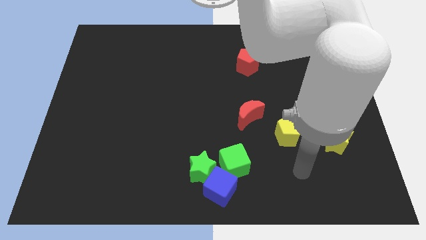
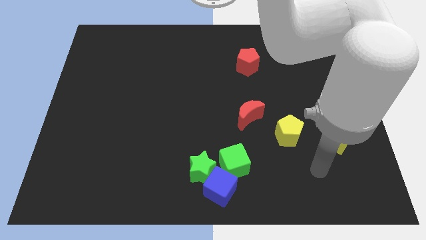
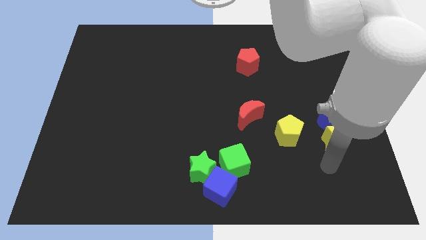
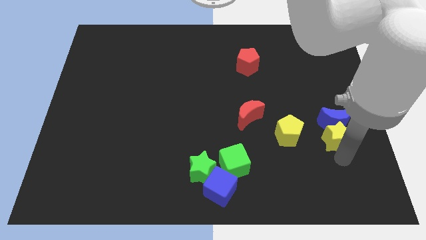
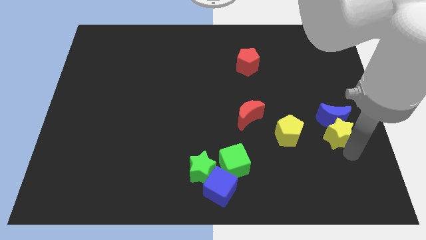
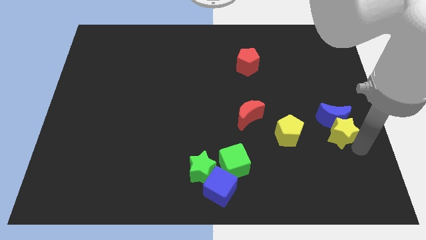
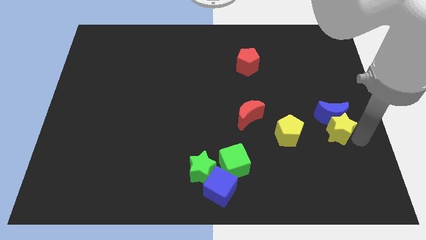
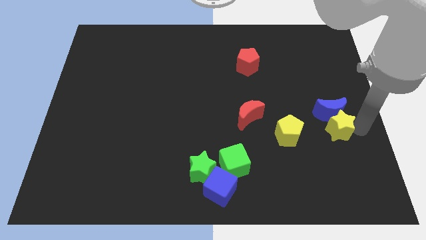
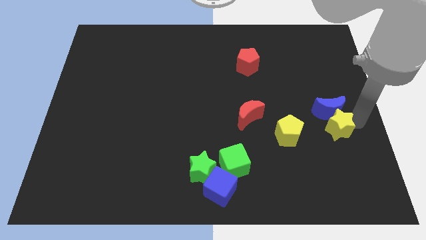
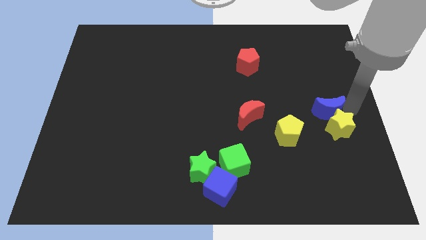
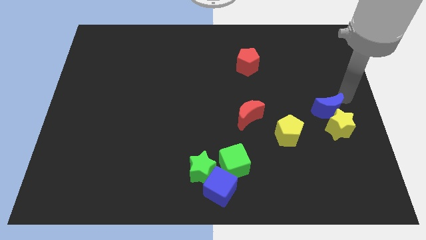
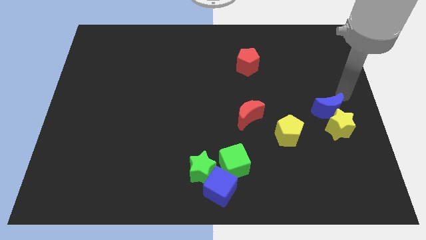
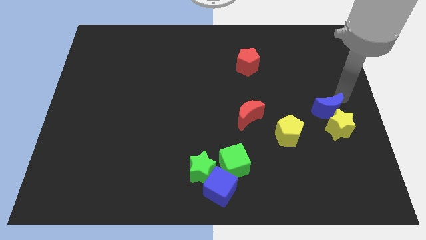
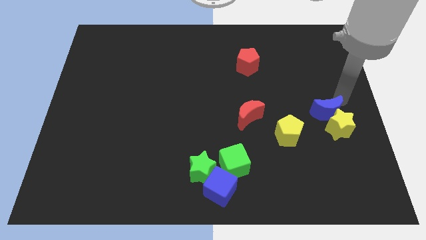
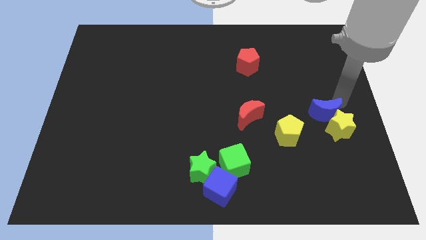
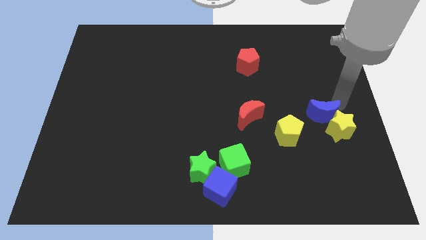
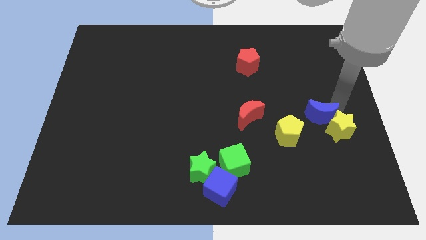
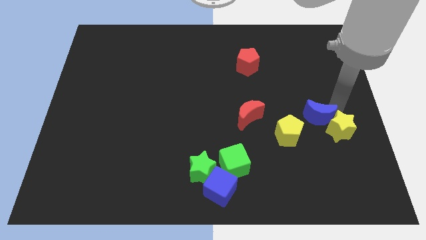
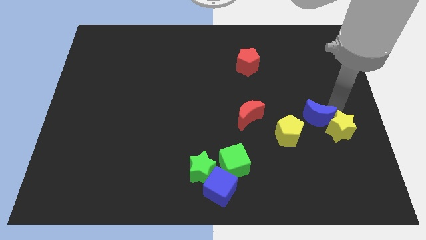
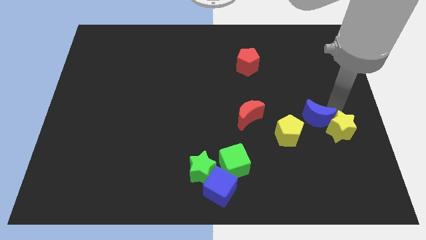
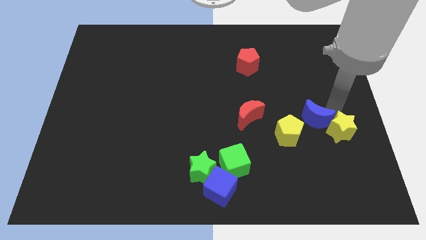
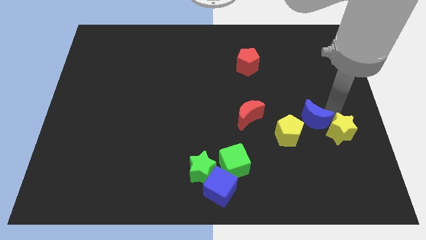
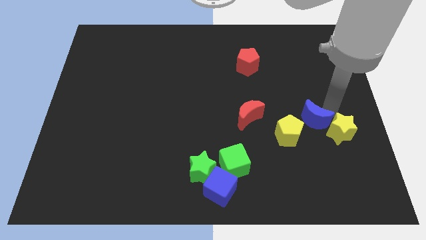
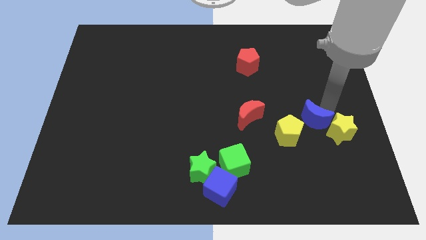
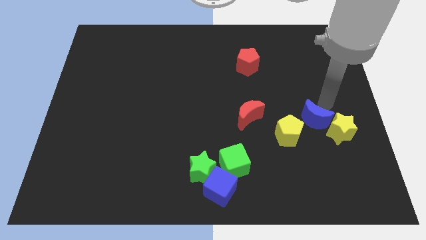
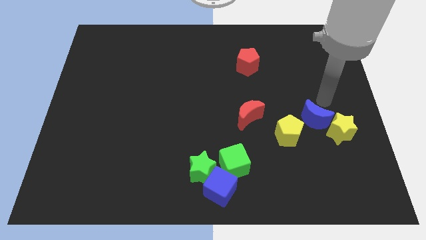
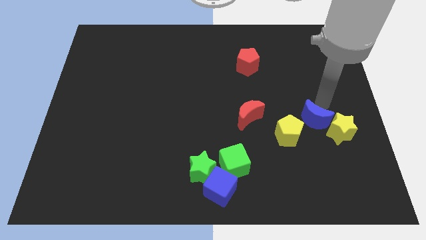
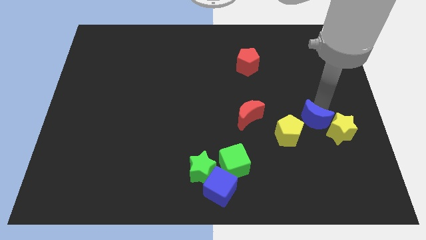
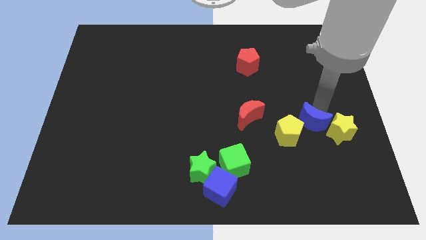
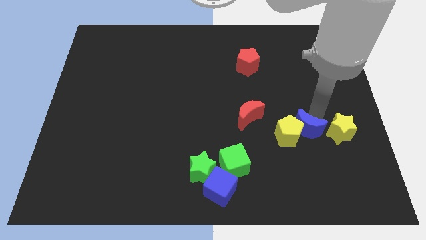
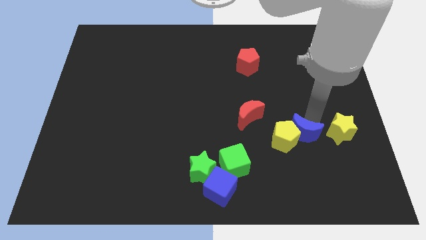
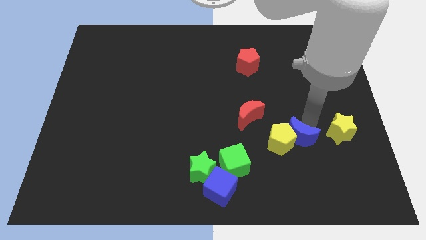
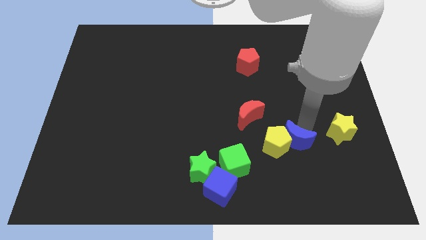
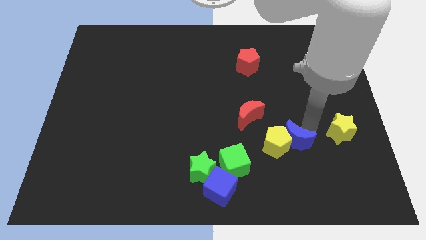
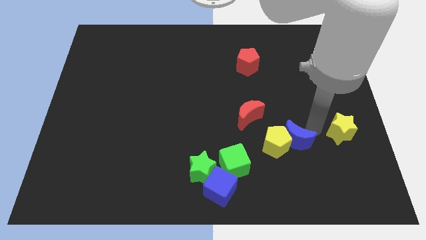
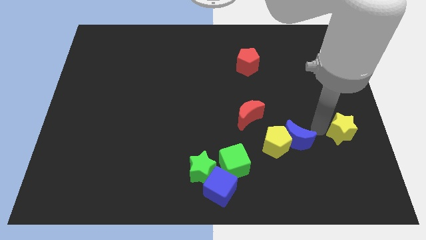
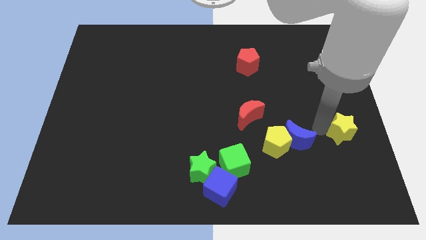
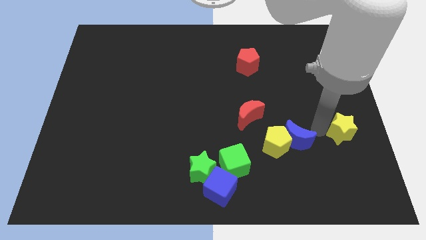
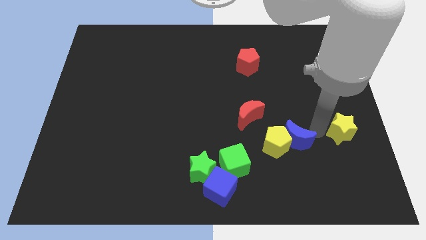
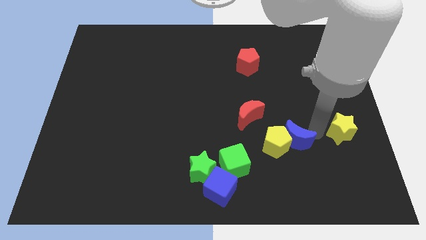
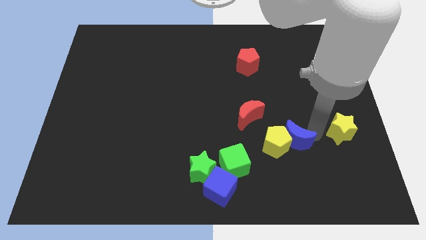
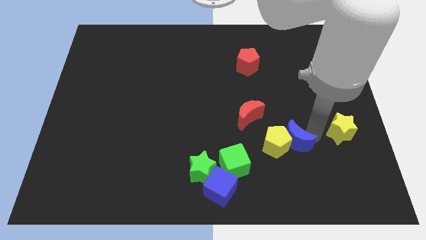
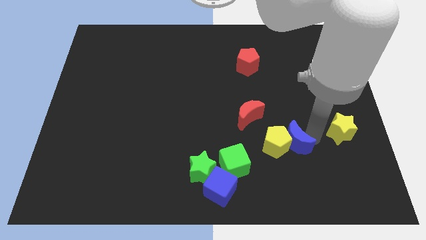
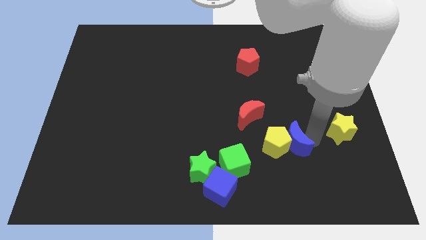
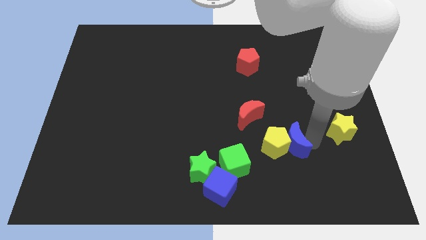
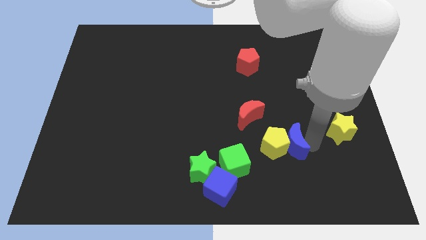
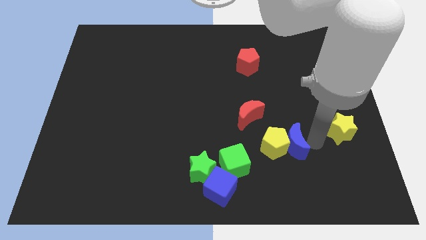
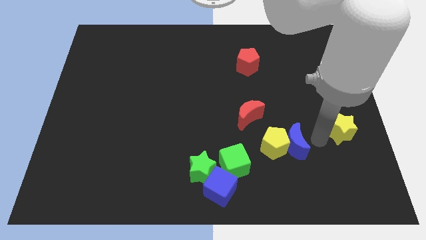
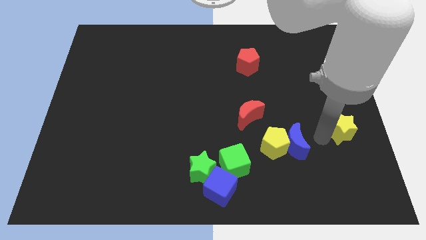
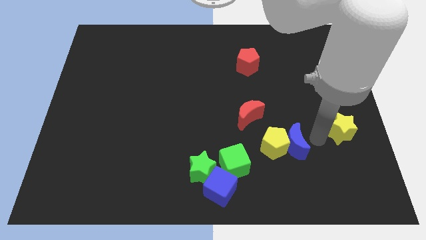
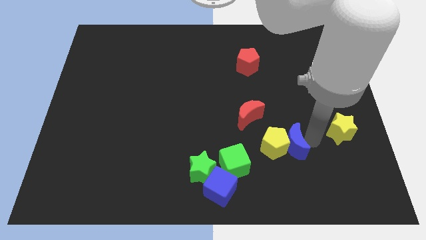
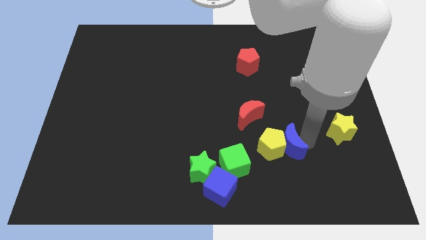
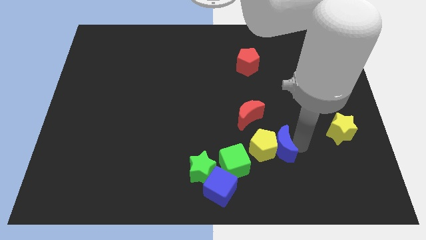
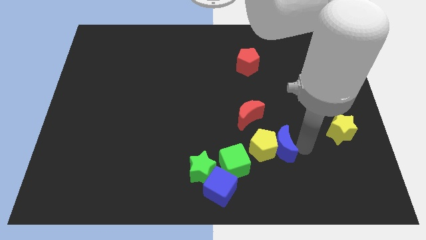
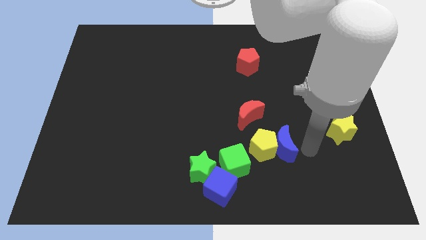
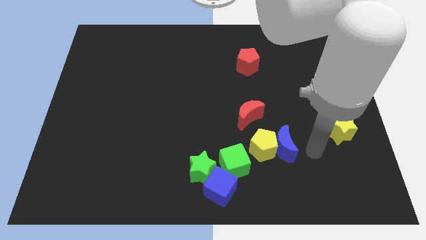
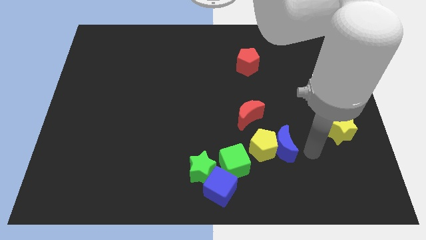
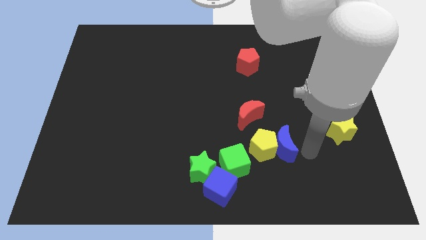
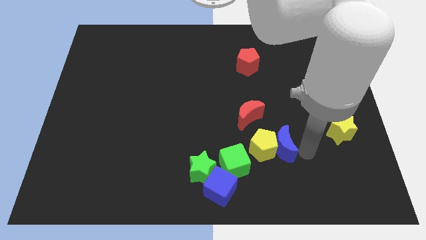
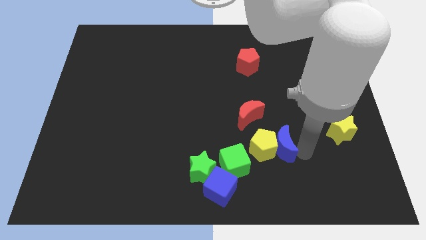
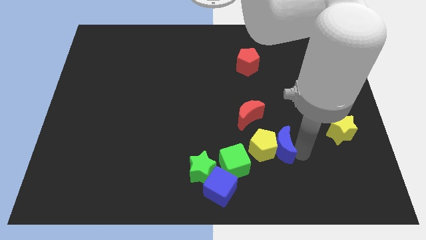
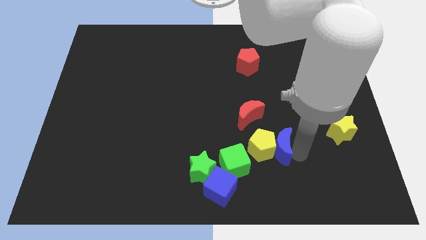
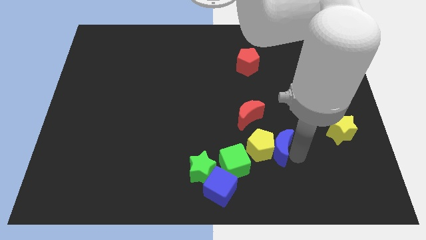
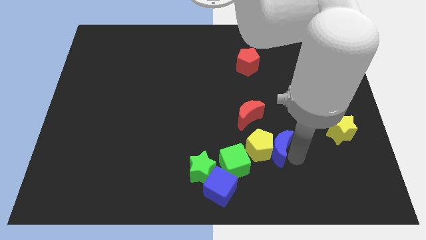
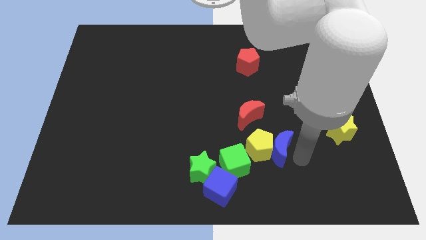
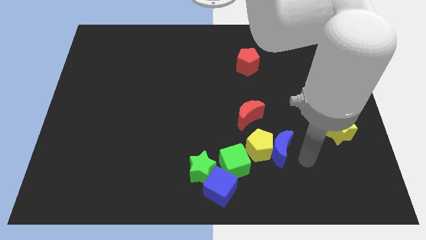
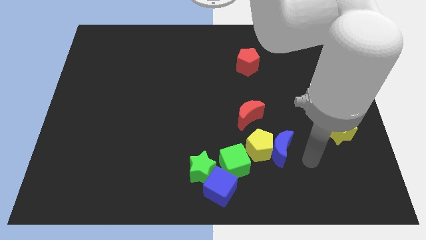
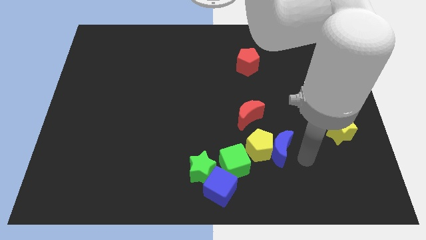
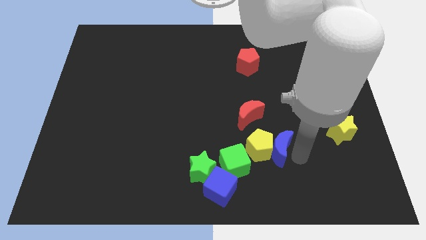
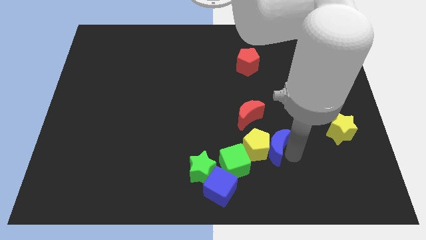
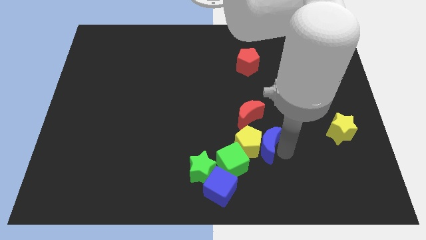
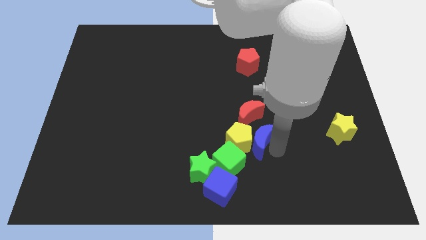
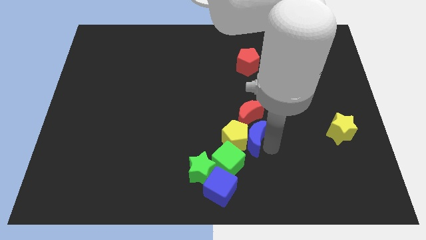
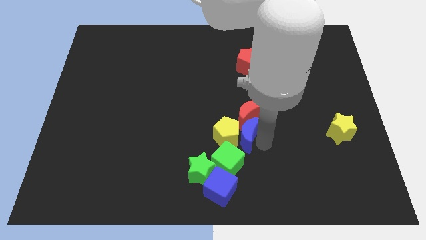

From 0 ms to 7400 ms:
slide the blue moon to the bottom left of the red moon
